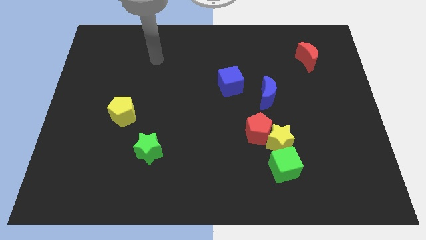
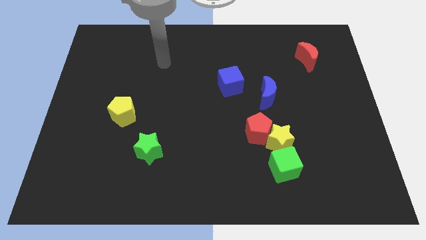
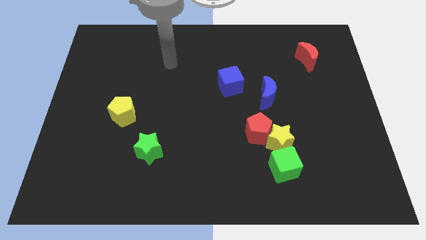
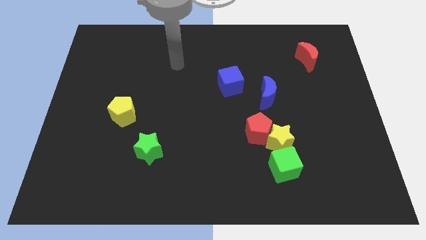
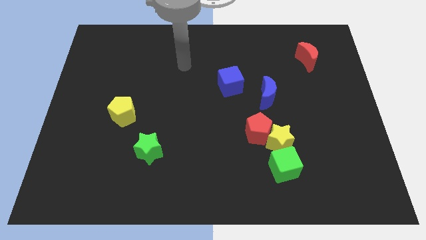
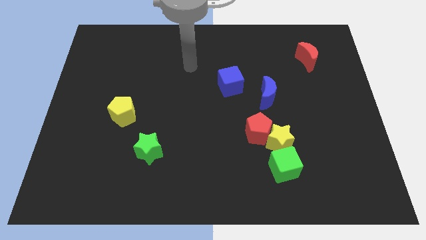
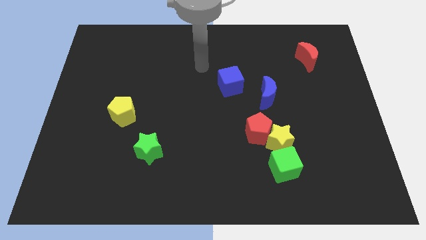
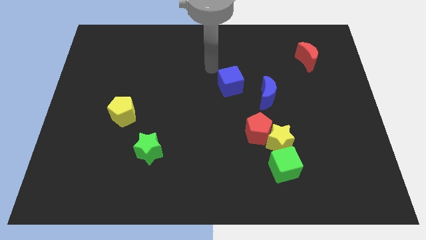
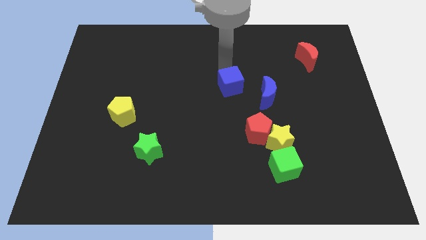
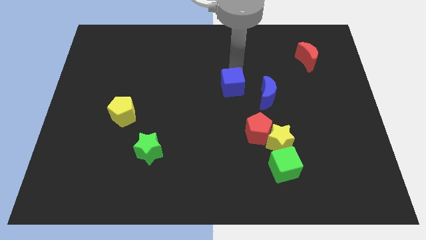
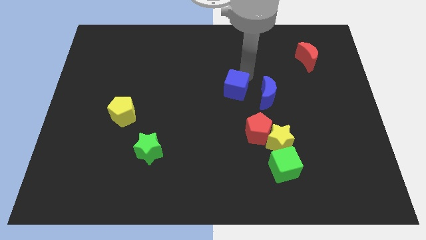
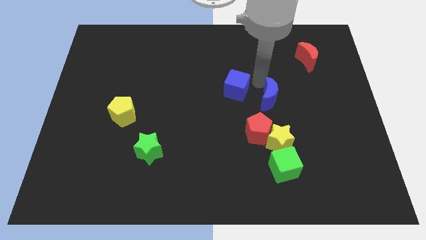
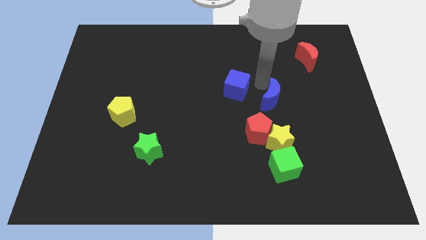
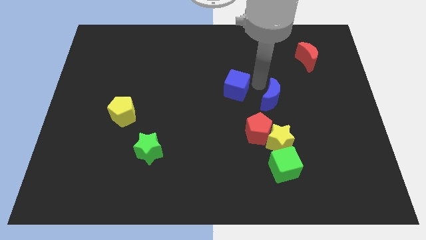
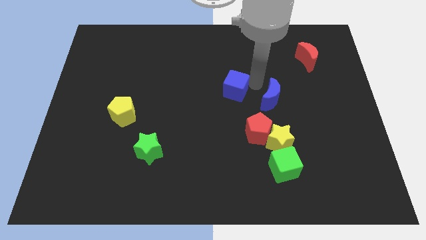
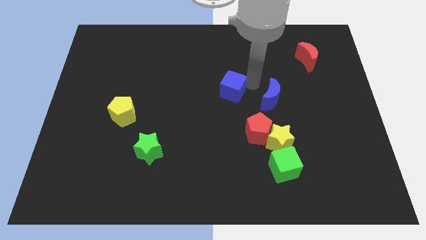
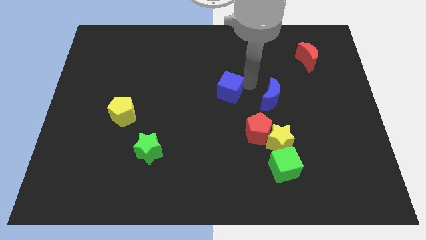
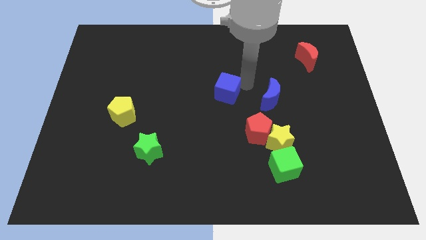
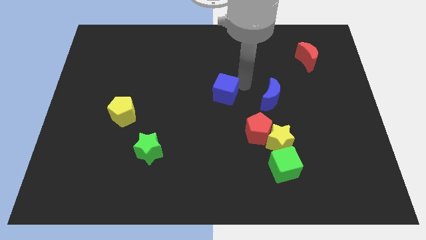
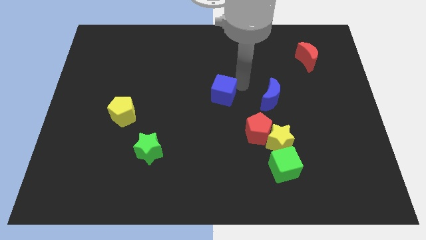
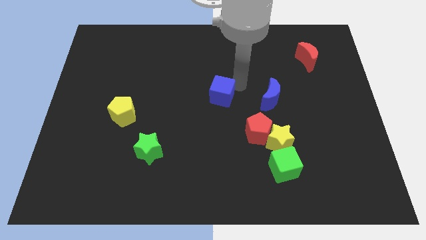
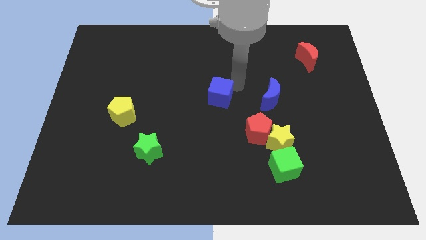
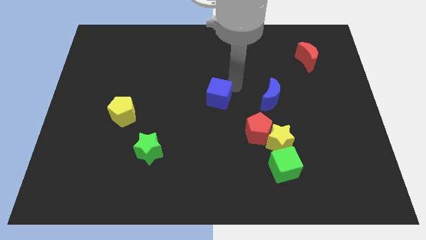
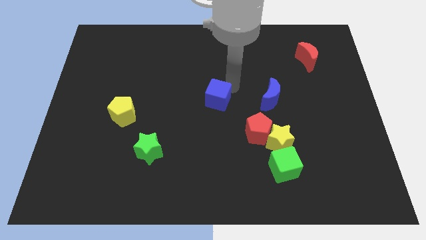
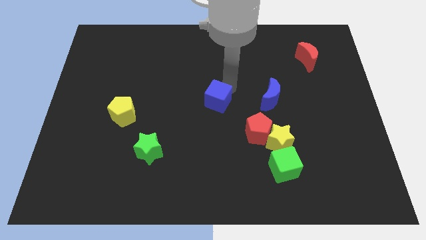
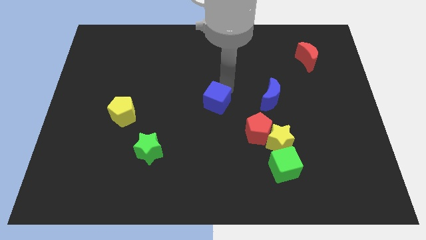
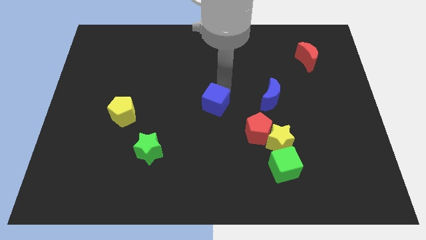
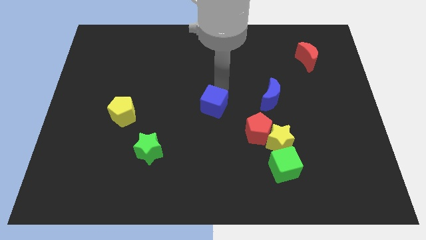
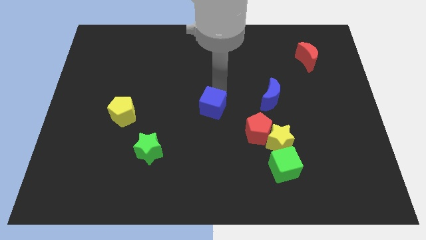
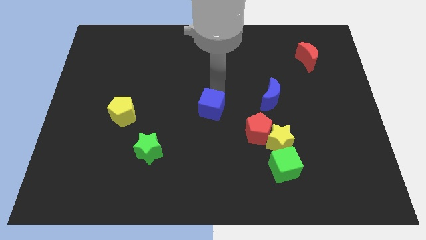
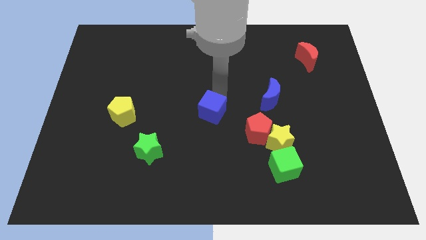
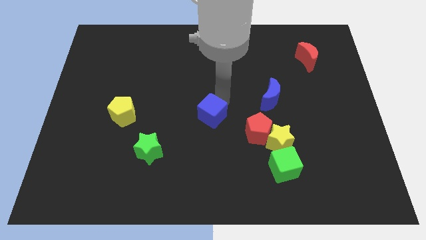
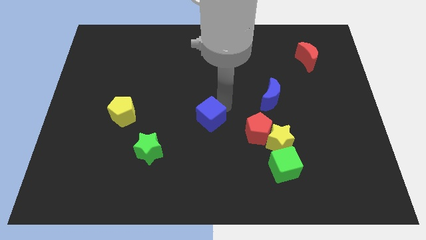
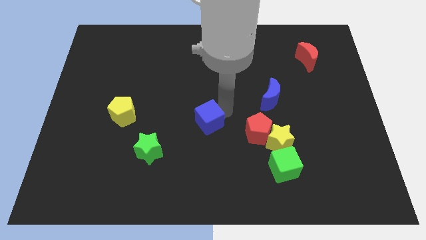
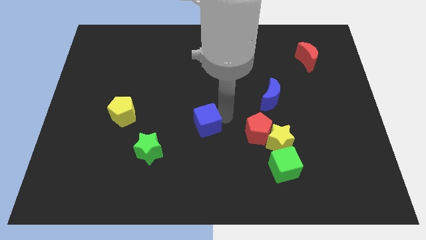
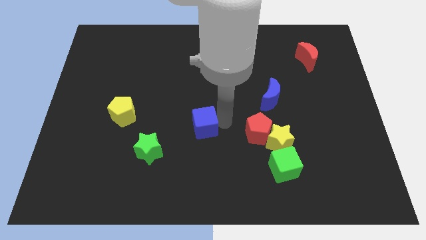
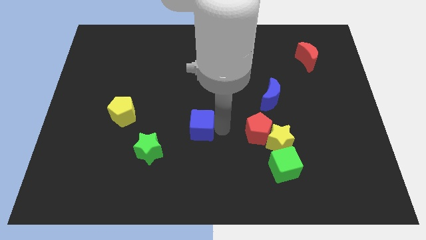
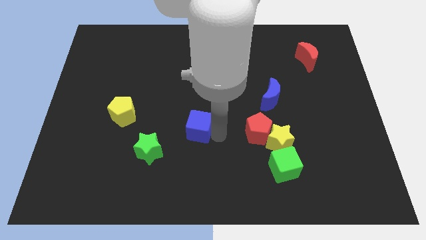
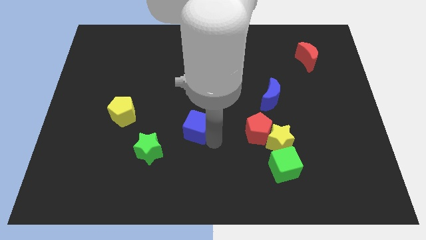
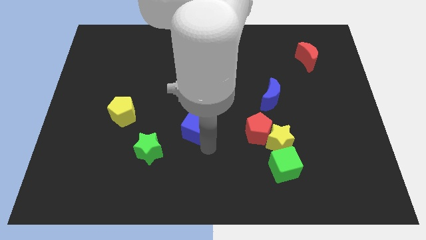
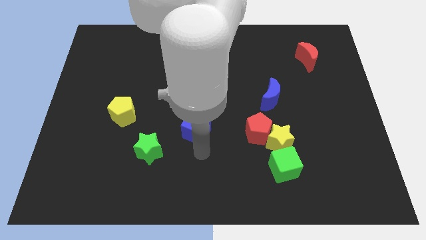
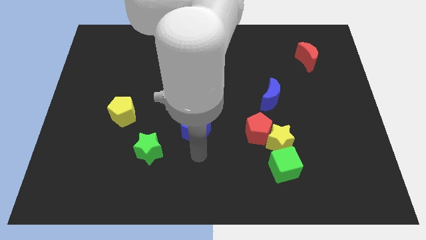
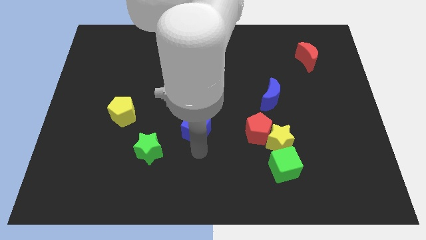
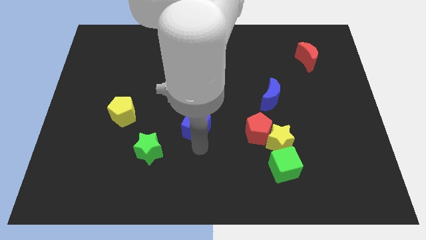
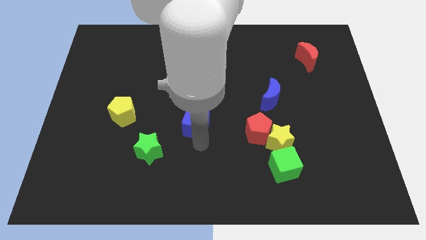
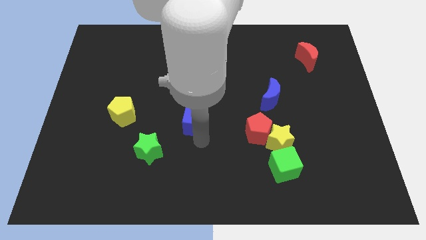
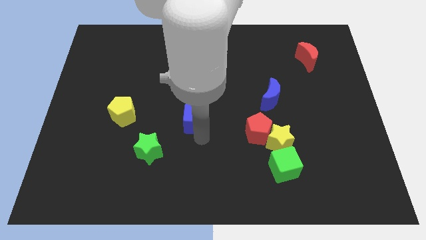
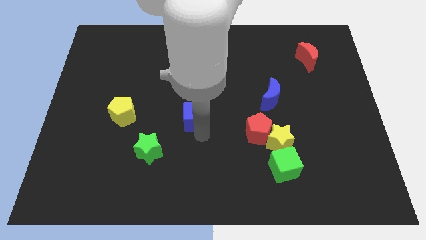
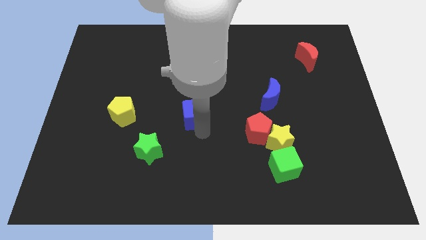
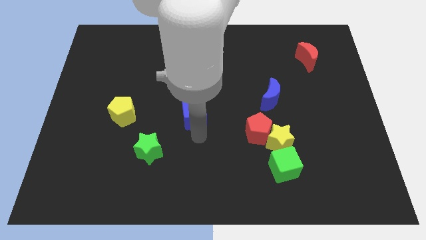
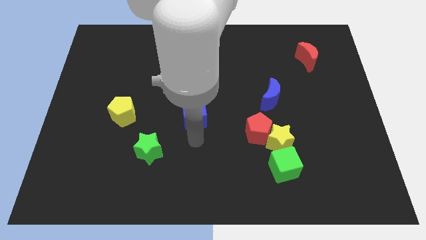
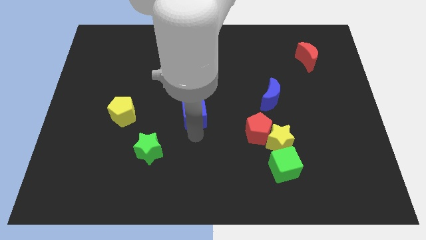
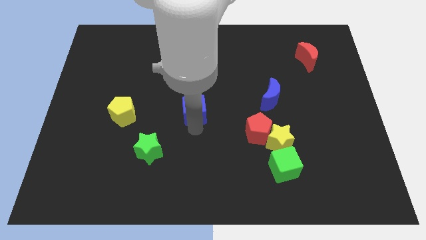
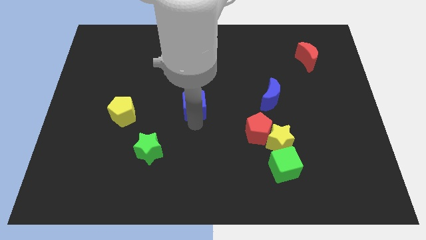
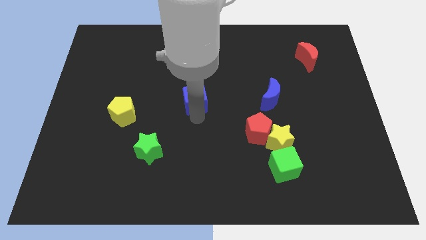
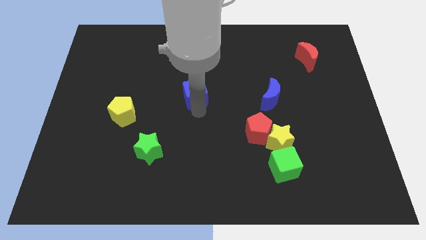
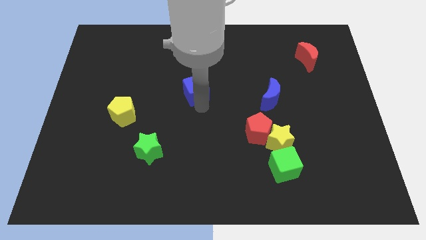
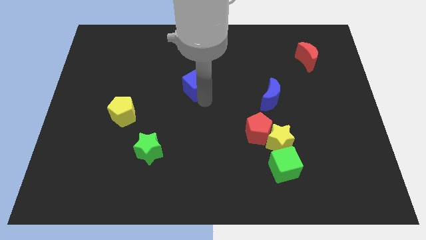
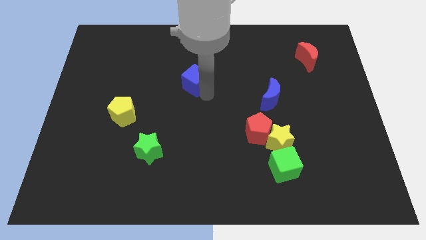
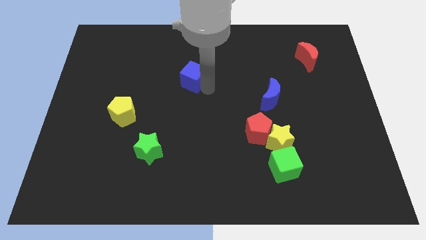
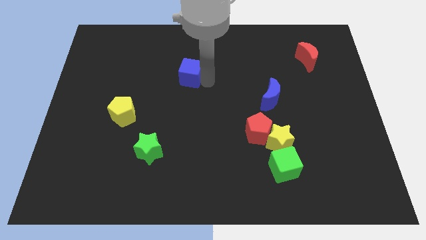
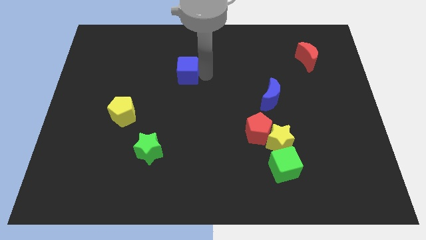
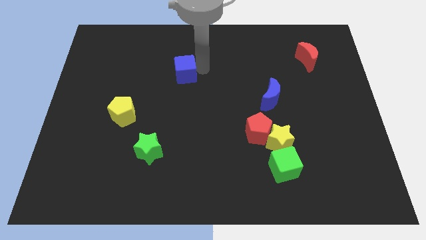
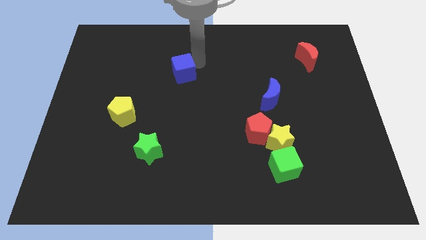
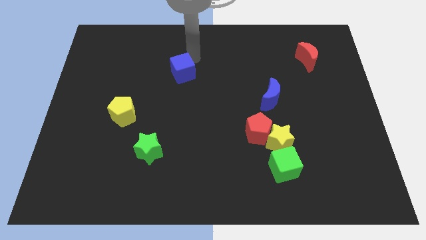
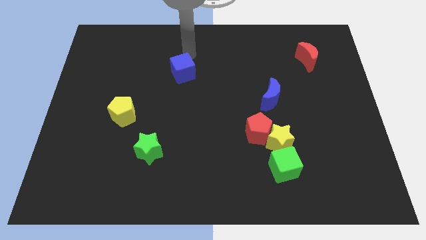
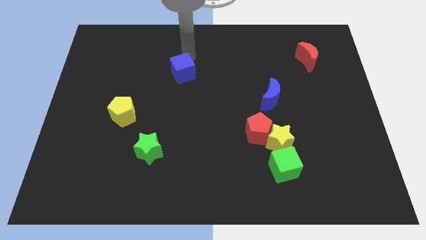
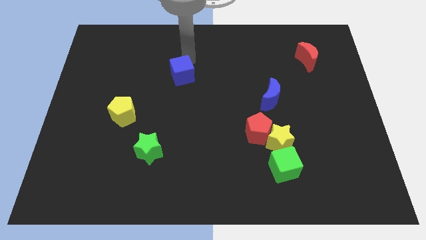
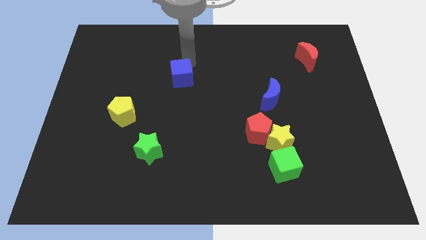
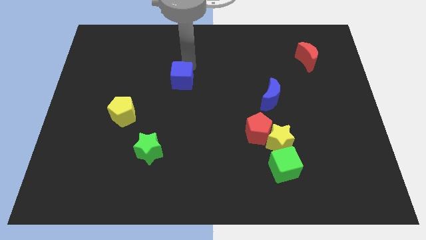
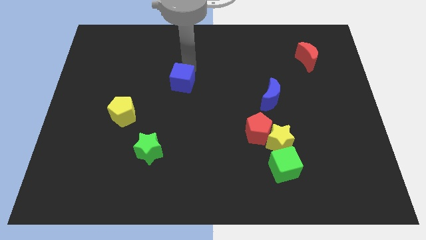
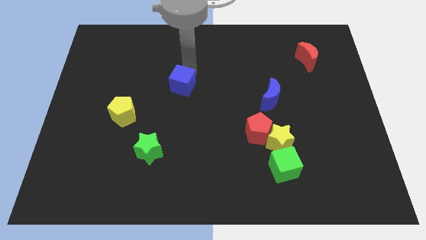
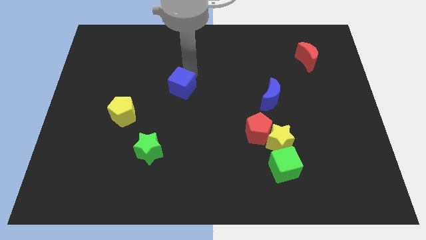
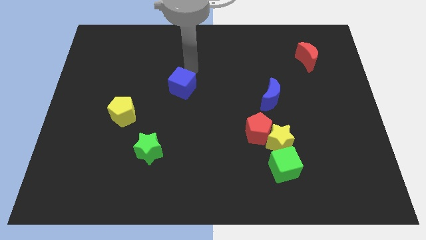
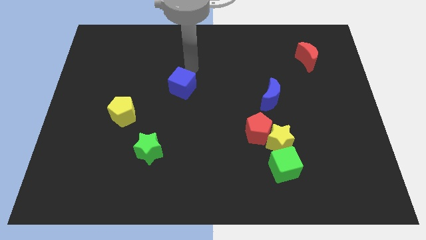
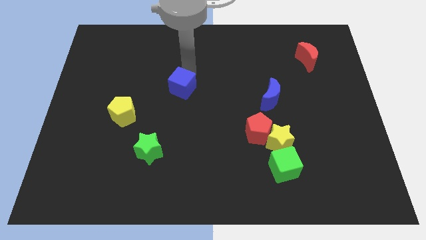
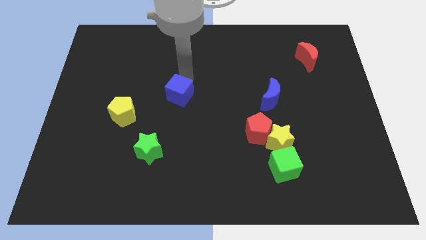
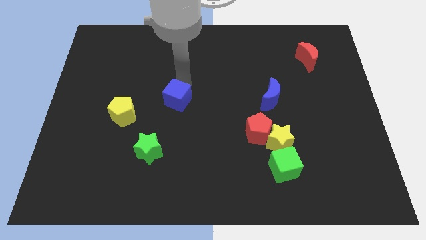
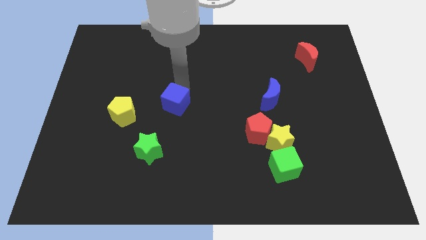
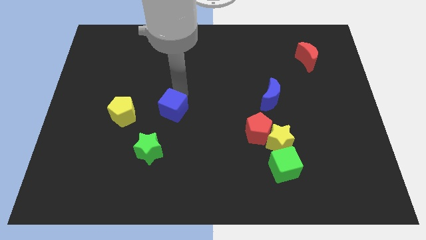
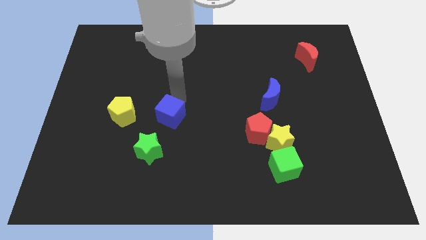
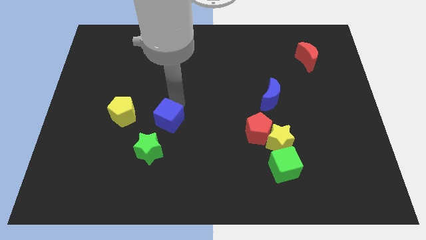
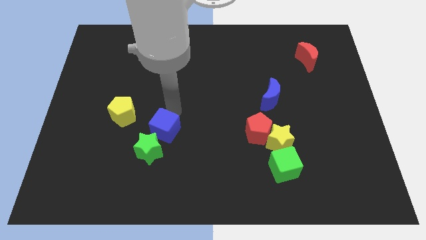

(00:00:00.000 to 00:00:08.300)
slide the blue cube towards the green star

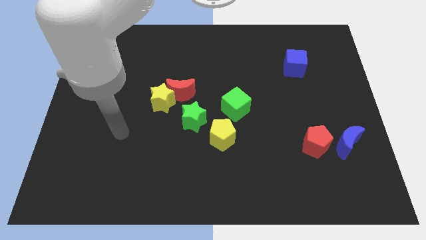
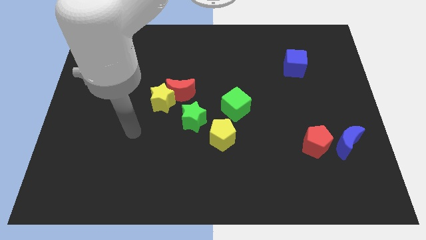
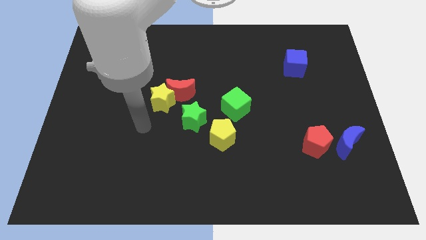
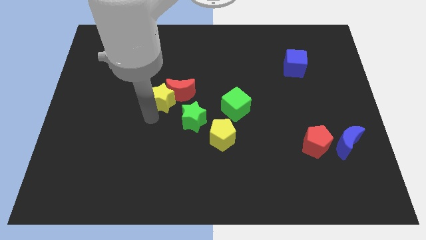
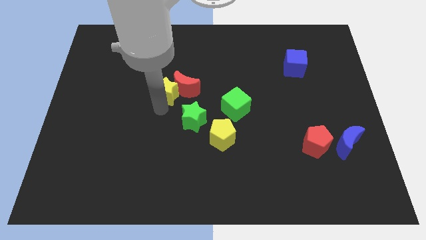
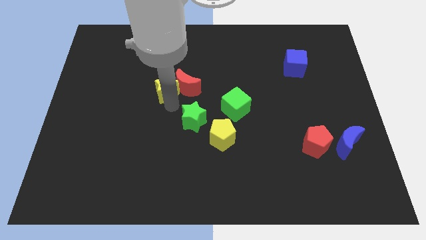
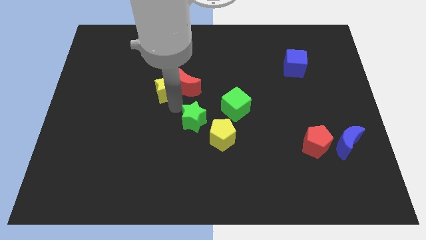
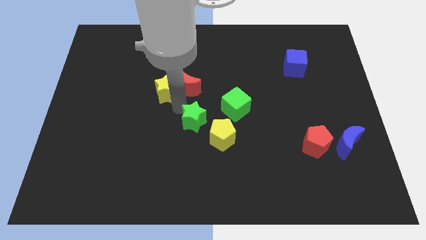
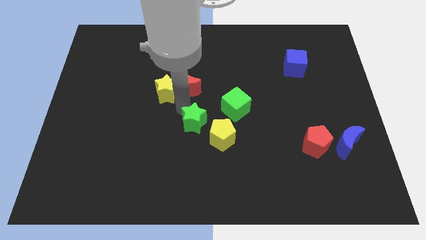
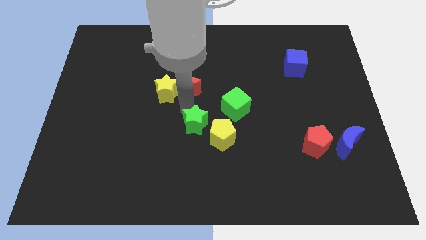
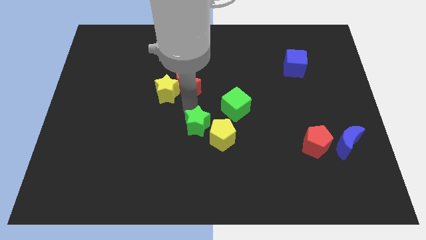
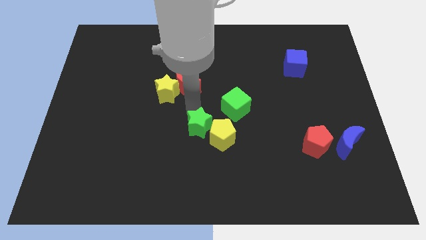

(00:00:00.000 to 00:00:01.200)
slide the green star next to the yellow pentagon
